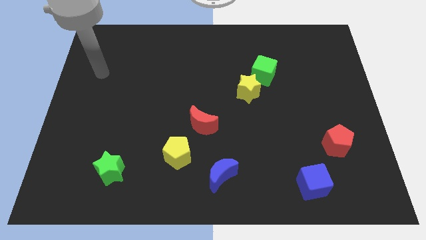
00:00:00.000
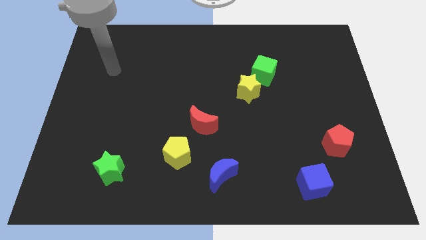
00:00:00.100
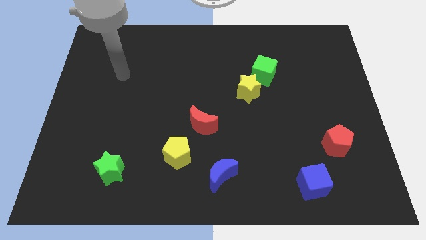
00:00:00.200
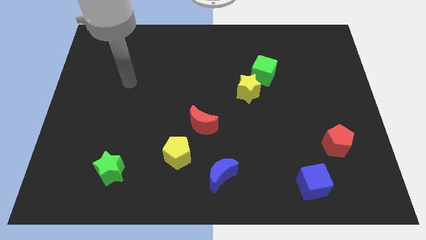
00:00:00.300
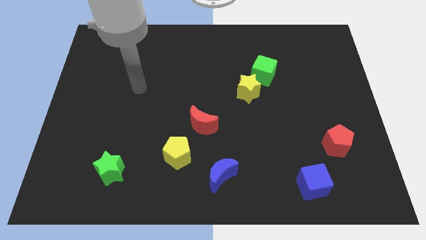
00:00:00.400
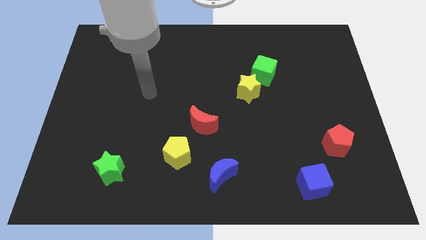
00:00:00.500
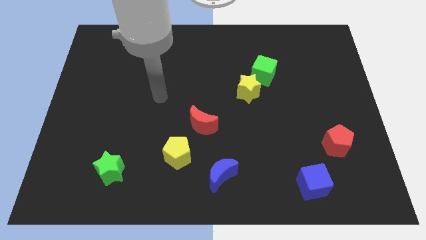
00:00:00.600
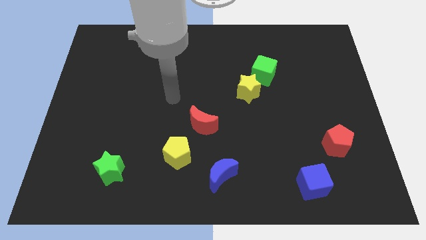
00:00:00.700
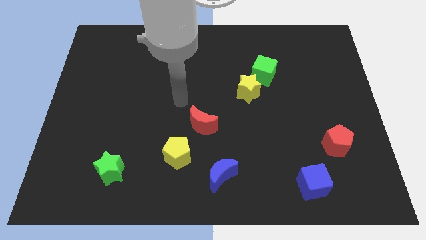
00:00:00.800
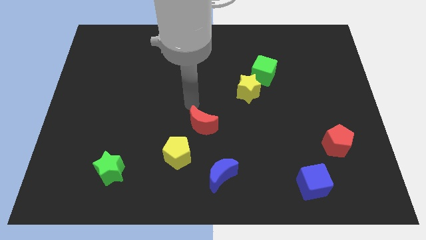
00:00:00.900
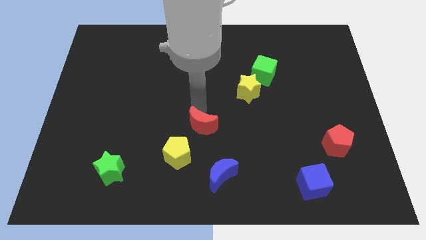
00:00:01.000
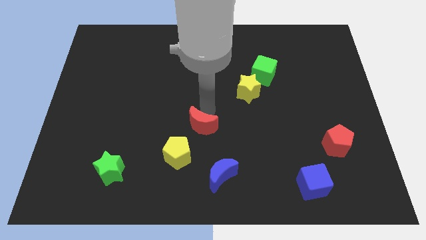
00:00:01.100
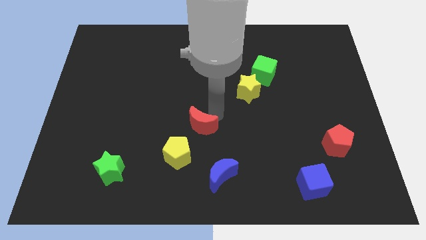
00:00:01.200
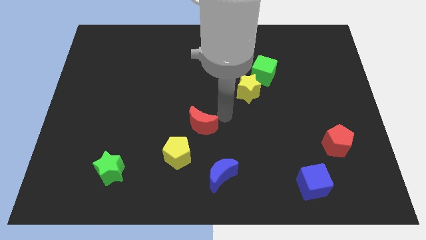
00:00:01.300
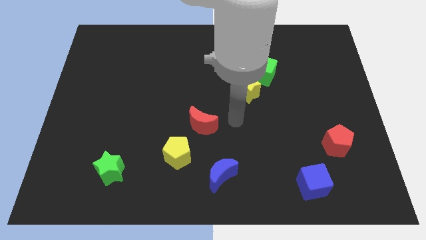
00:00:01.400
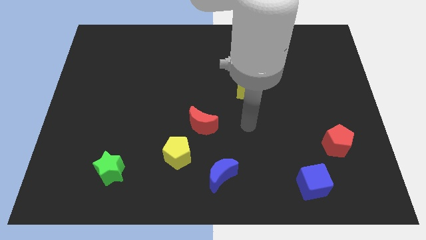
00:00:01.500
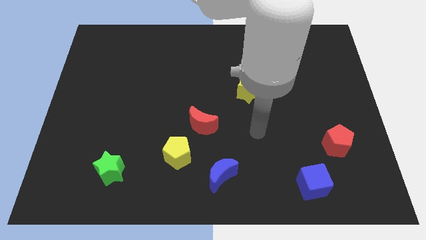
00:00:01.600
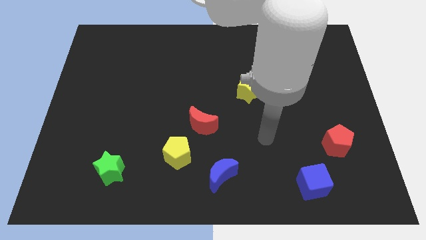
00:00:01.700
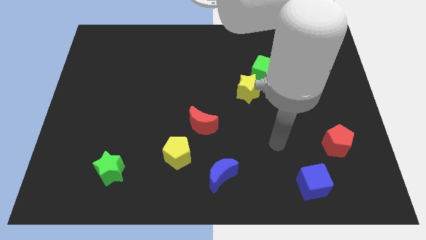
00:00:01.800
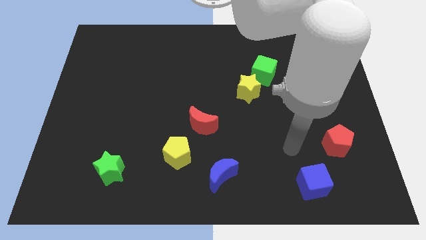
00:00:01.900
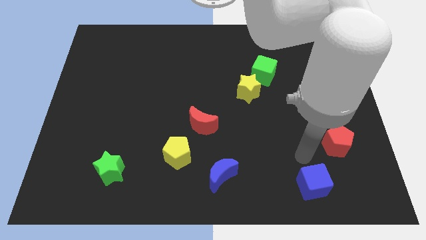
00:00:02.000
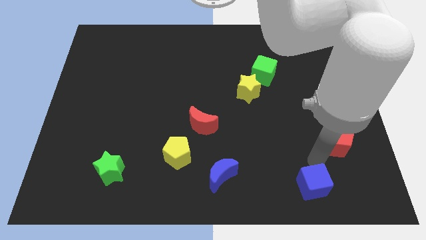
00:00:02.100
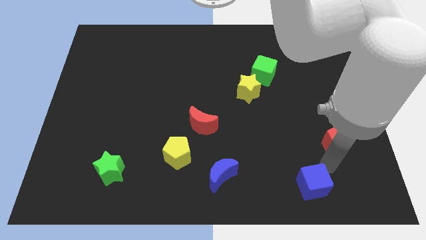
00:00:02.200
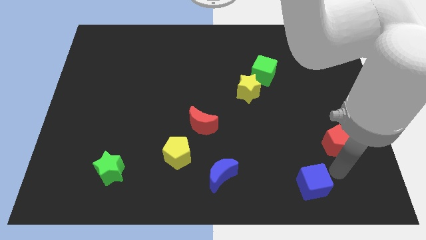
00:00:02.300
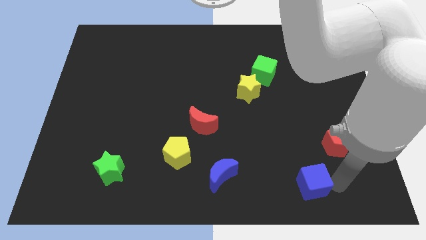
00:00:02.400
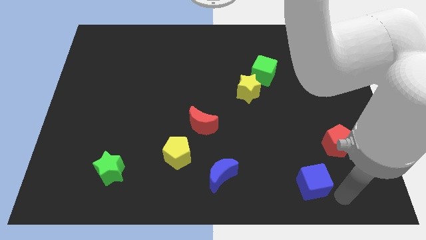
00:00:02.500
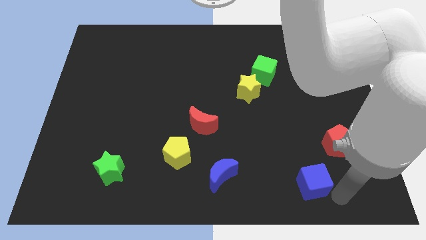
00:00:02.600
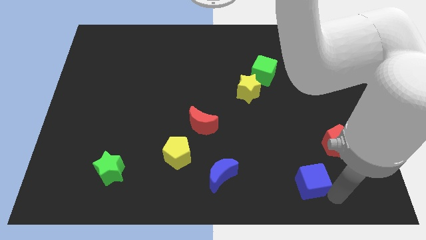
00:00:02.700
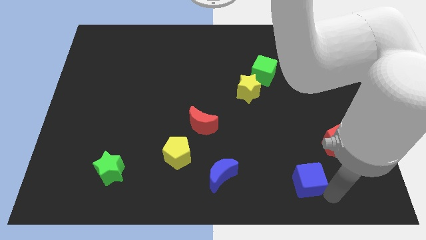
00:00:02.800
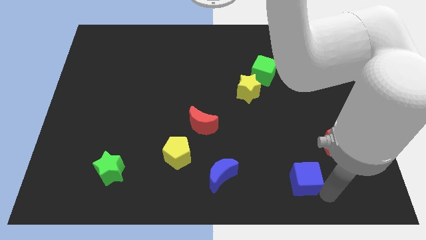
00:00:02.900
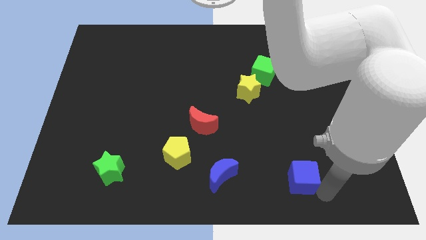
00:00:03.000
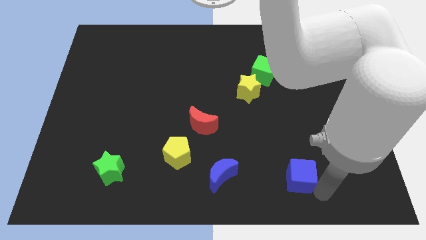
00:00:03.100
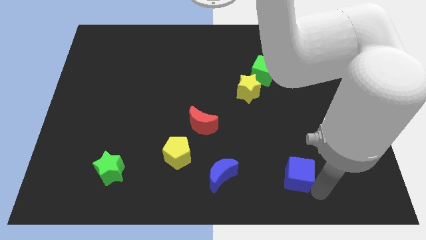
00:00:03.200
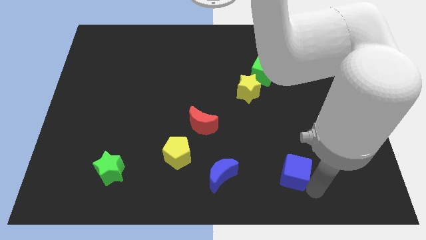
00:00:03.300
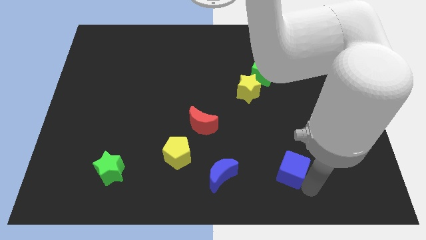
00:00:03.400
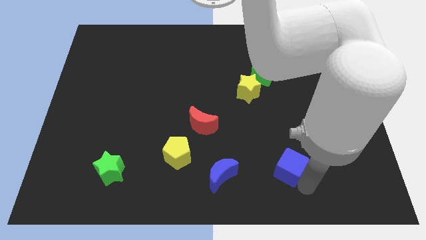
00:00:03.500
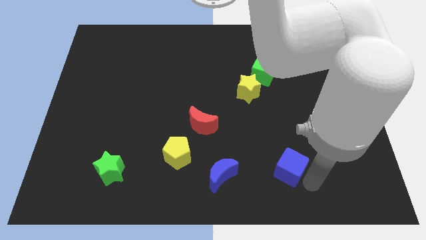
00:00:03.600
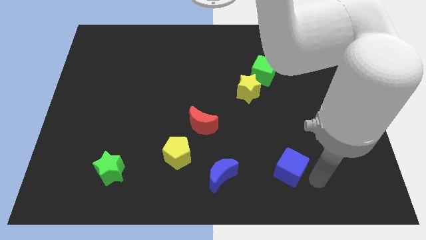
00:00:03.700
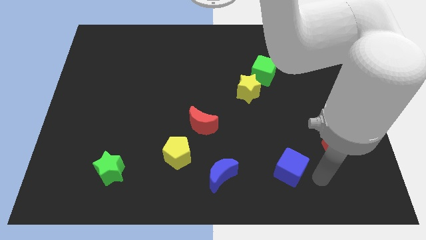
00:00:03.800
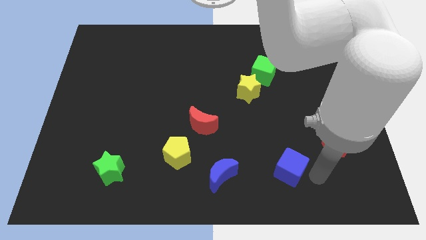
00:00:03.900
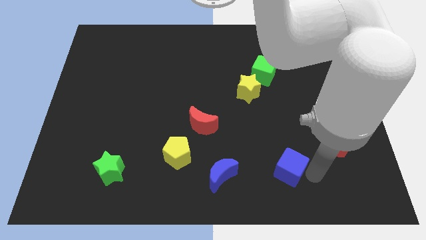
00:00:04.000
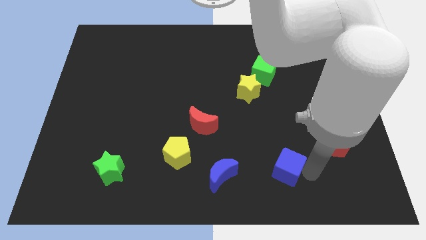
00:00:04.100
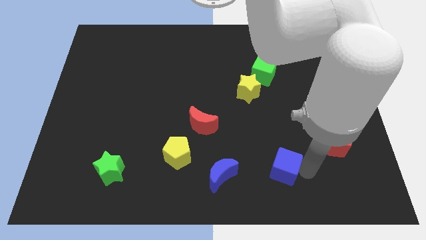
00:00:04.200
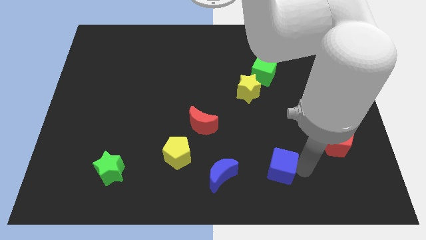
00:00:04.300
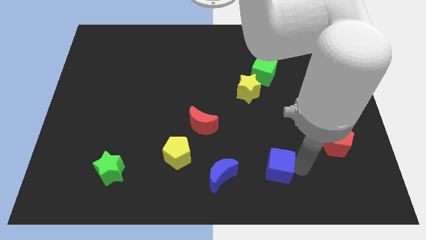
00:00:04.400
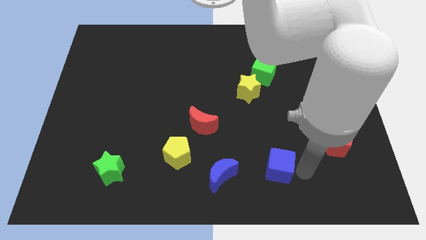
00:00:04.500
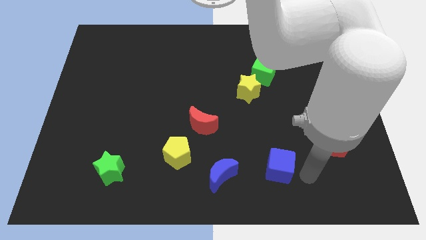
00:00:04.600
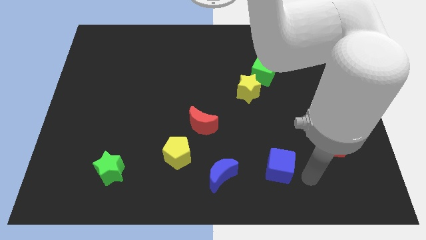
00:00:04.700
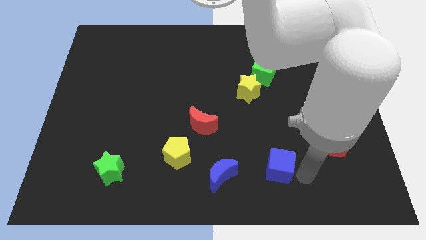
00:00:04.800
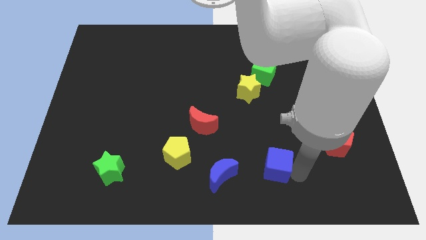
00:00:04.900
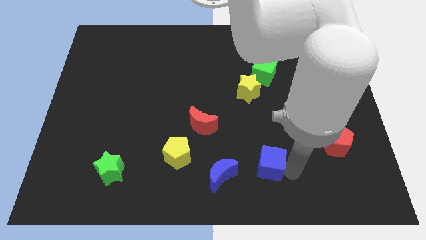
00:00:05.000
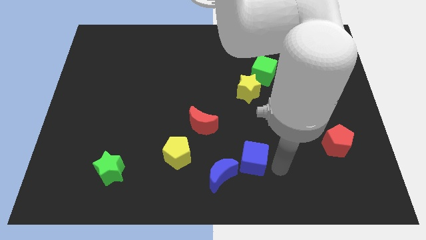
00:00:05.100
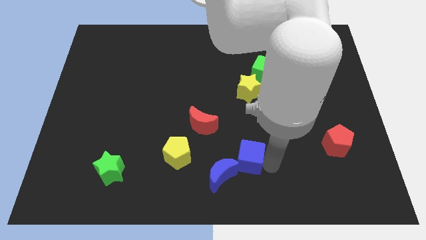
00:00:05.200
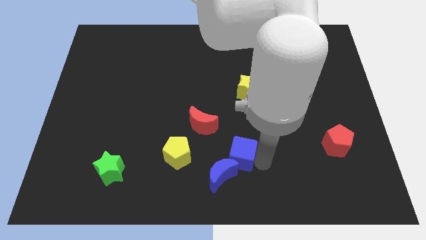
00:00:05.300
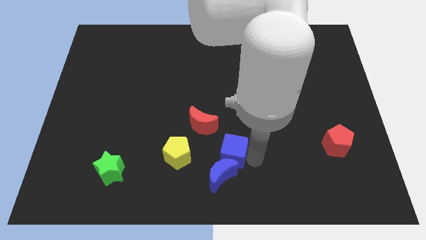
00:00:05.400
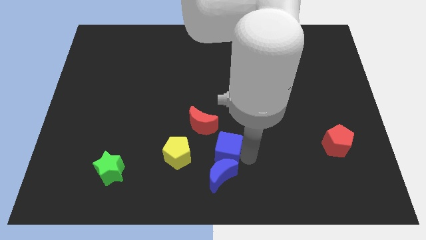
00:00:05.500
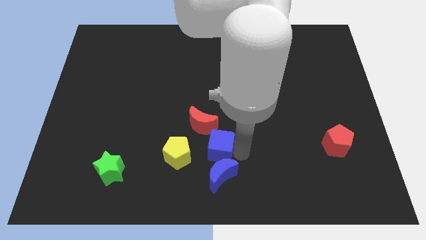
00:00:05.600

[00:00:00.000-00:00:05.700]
push the blue cube to the bottom of the red moon

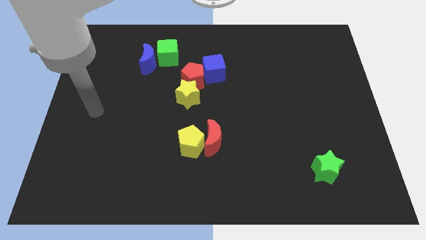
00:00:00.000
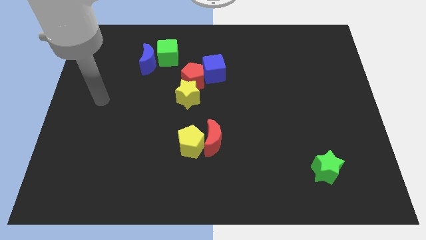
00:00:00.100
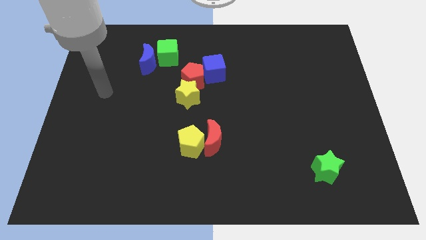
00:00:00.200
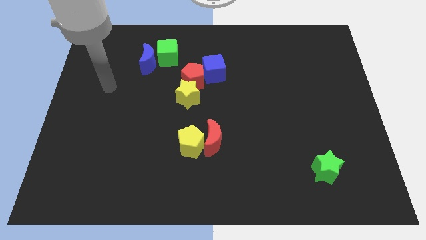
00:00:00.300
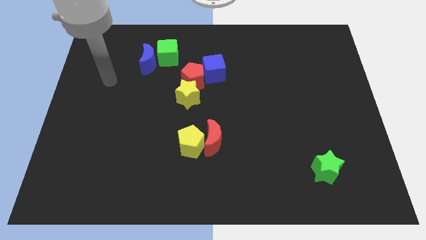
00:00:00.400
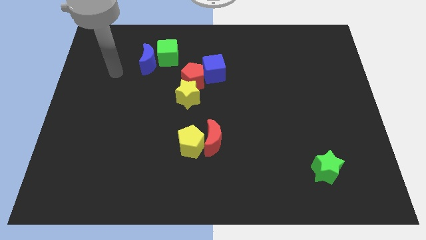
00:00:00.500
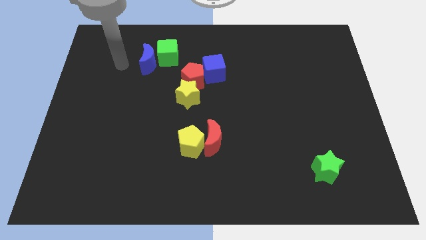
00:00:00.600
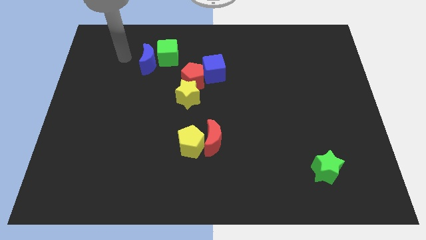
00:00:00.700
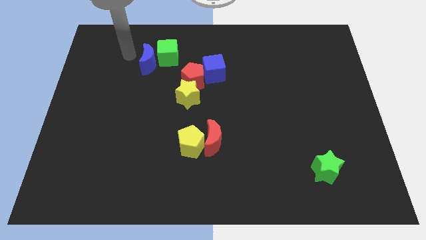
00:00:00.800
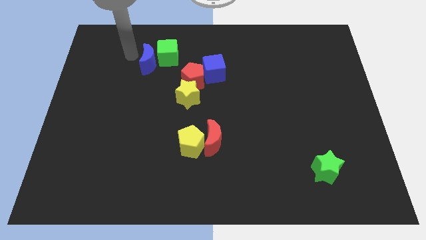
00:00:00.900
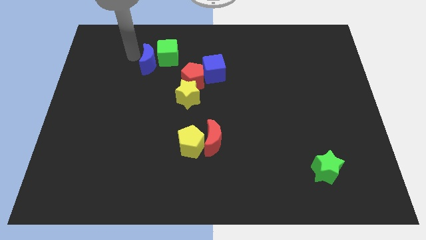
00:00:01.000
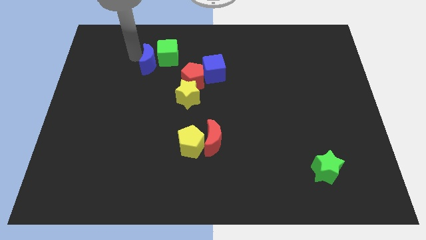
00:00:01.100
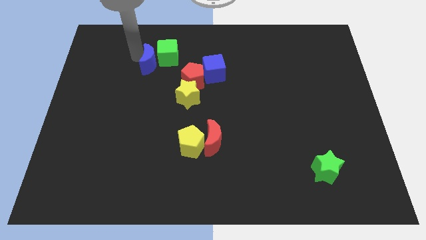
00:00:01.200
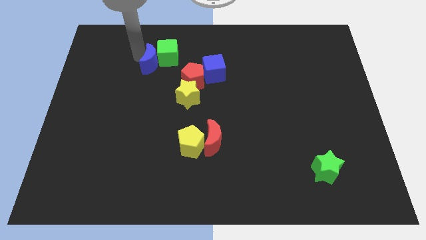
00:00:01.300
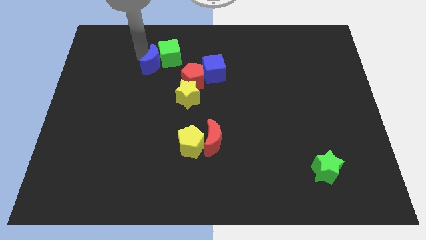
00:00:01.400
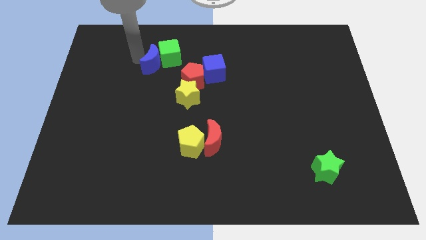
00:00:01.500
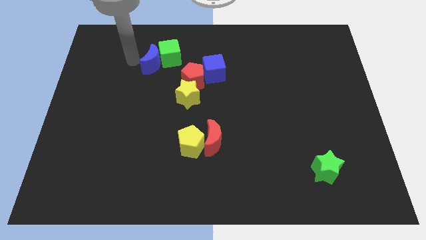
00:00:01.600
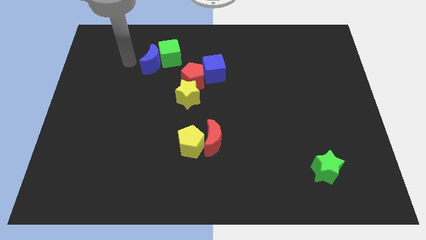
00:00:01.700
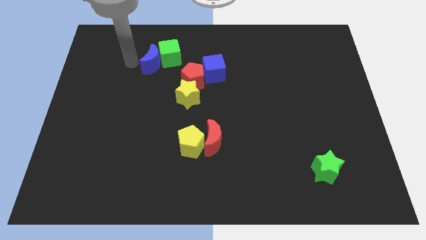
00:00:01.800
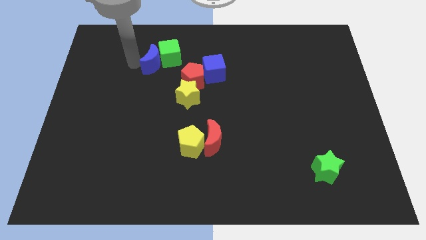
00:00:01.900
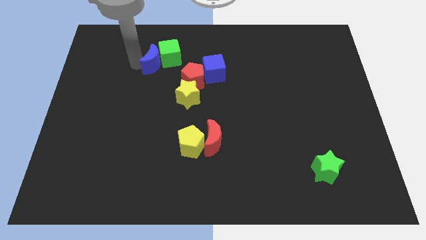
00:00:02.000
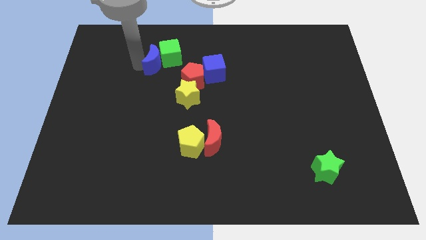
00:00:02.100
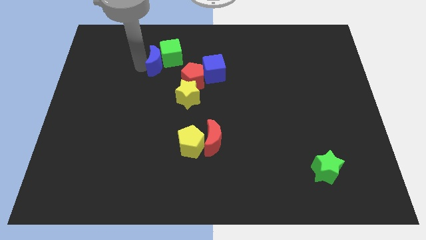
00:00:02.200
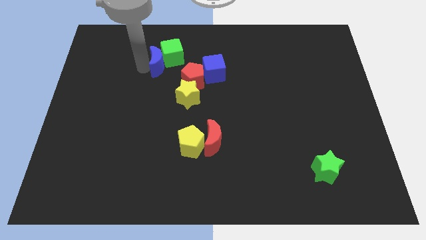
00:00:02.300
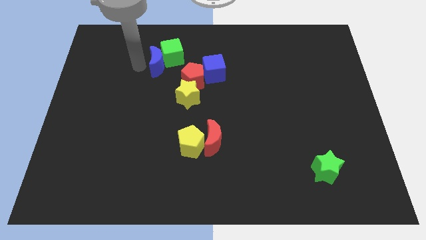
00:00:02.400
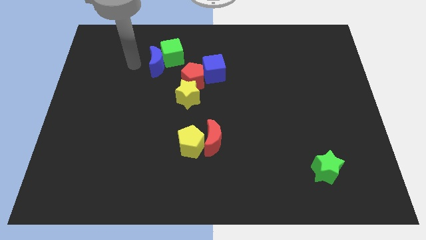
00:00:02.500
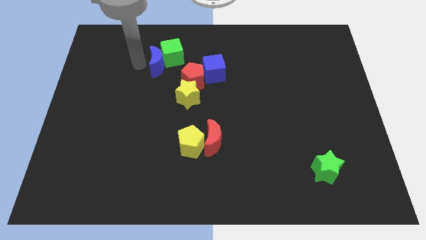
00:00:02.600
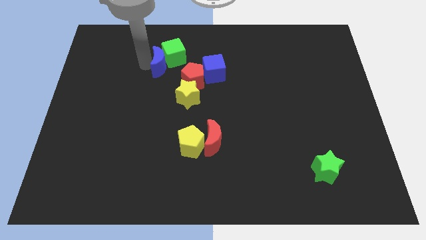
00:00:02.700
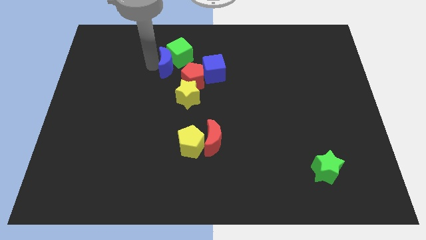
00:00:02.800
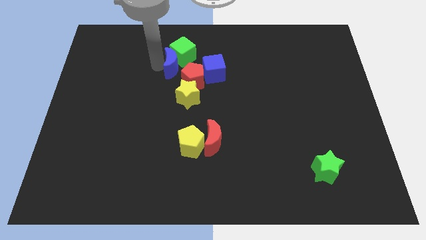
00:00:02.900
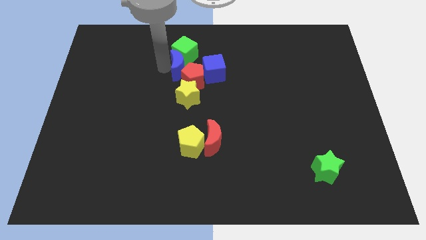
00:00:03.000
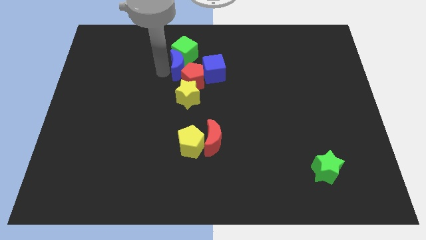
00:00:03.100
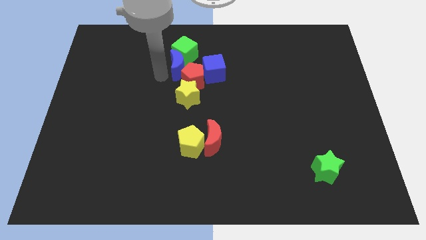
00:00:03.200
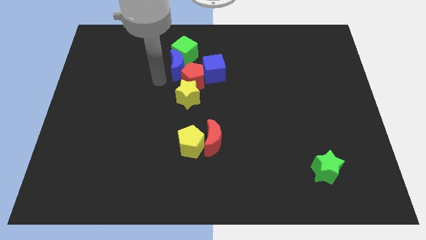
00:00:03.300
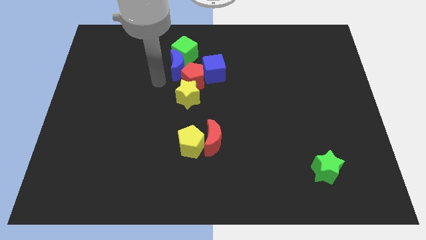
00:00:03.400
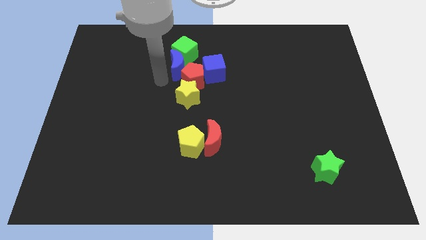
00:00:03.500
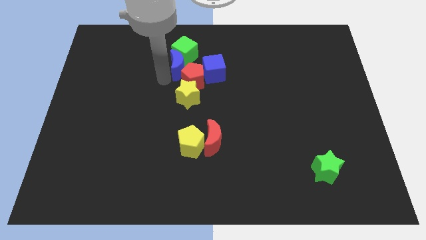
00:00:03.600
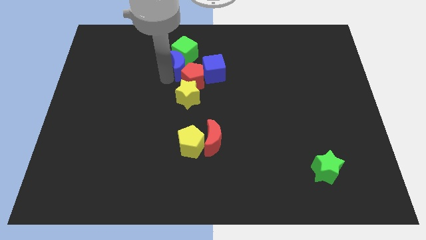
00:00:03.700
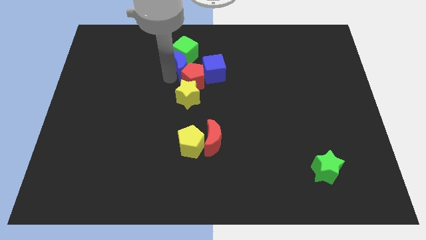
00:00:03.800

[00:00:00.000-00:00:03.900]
move the blue moon to the top left of the blue cube
